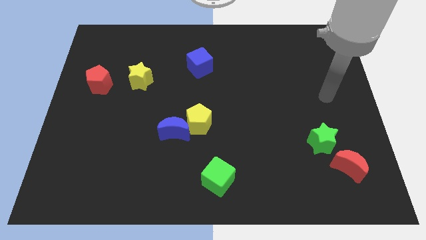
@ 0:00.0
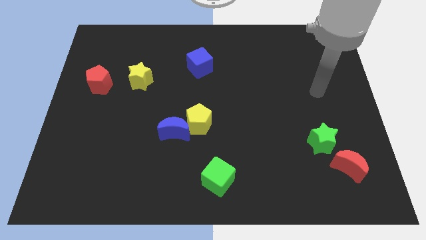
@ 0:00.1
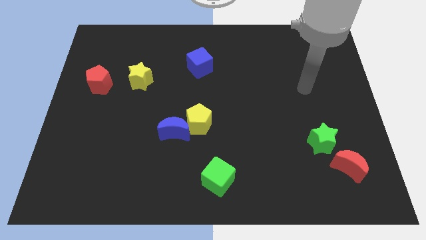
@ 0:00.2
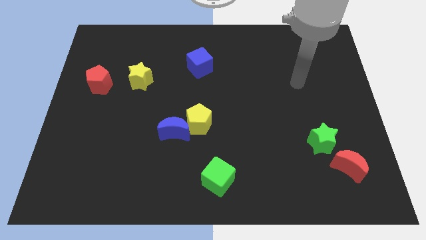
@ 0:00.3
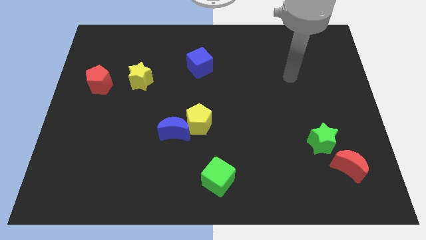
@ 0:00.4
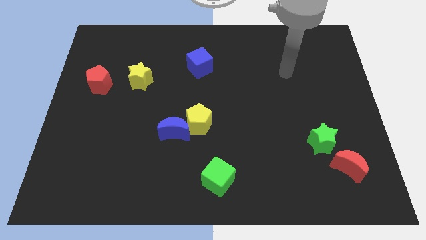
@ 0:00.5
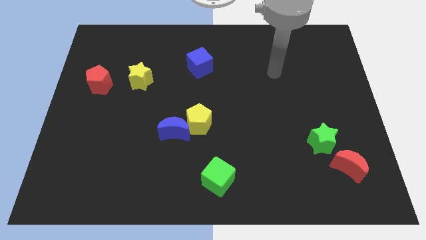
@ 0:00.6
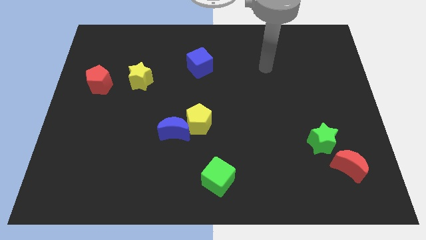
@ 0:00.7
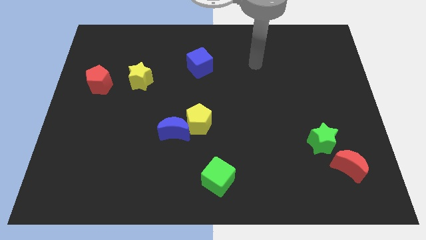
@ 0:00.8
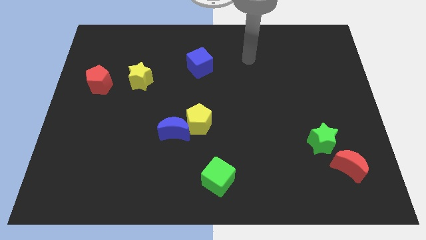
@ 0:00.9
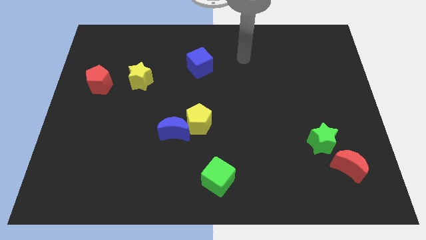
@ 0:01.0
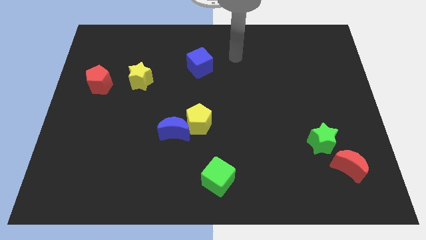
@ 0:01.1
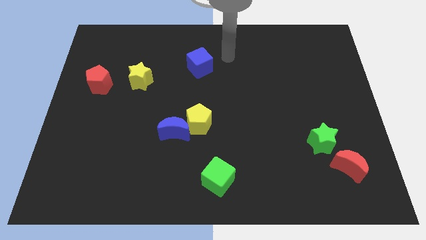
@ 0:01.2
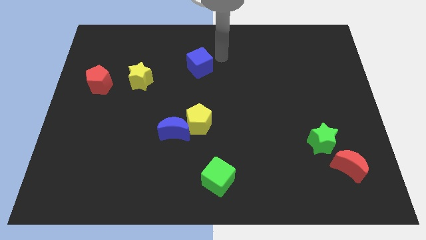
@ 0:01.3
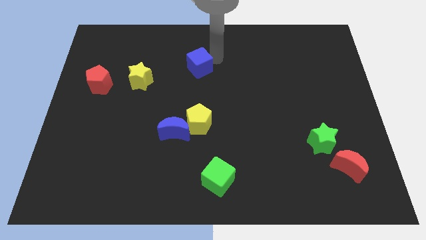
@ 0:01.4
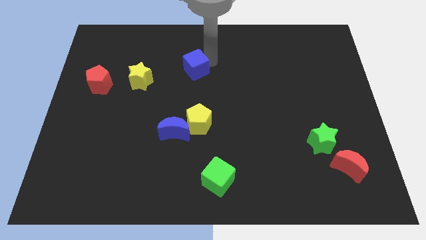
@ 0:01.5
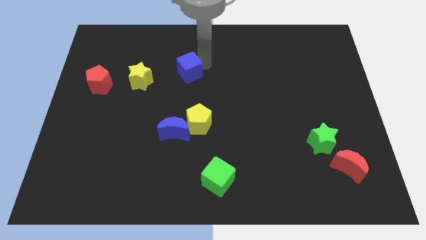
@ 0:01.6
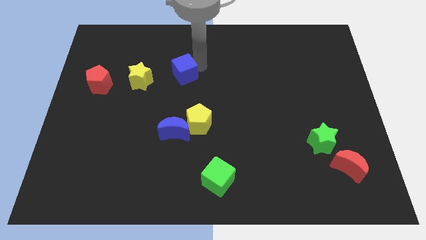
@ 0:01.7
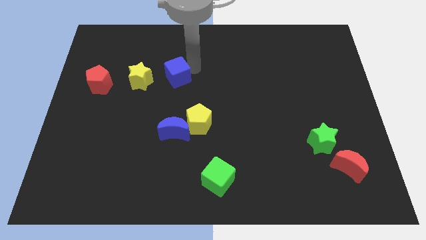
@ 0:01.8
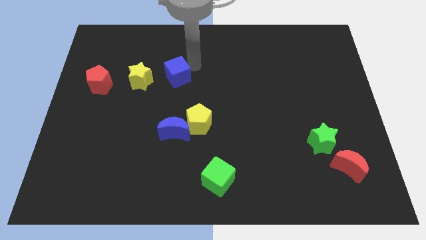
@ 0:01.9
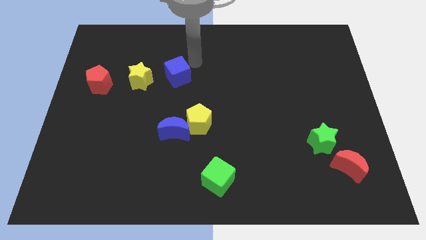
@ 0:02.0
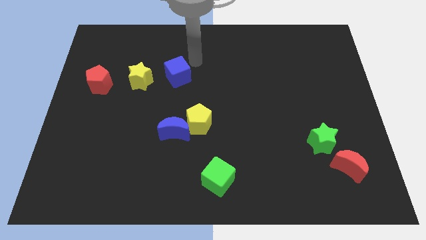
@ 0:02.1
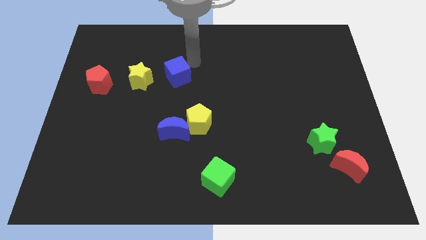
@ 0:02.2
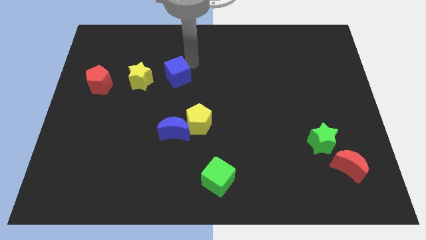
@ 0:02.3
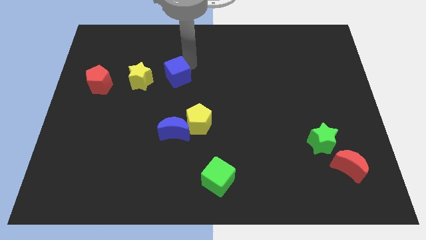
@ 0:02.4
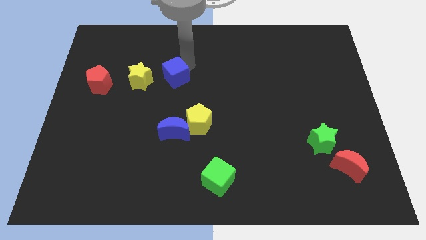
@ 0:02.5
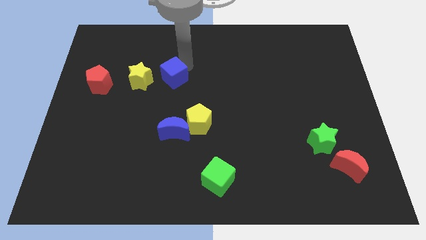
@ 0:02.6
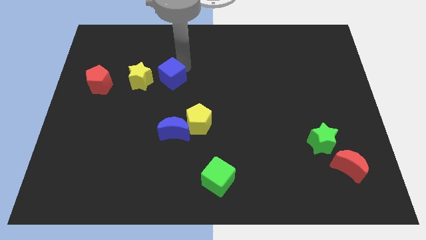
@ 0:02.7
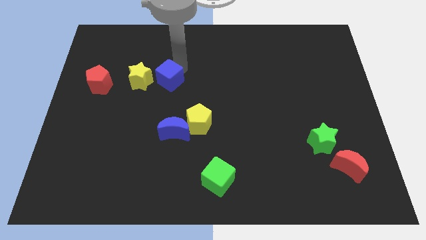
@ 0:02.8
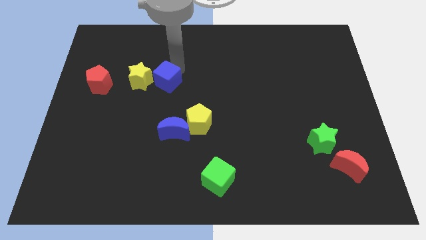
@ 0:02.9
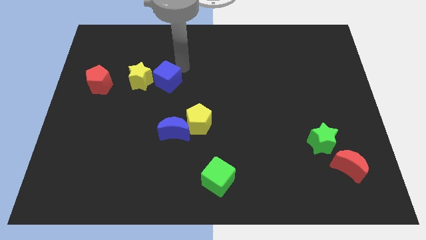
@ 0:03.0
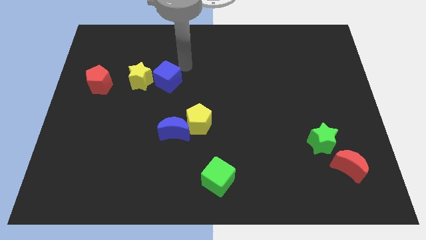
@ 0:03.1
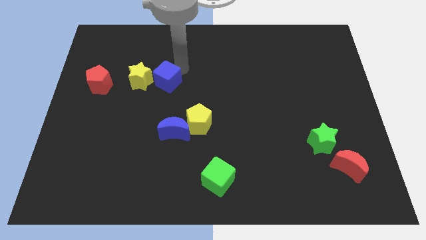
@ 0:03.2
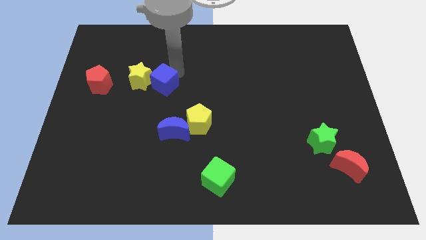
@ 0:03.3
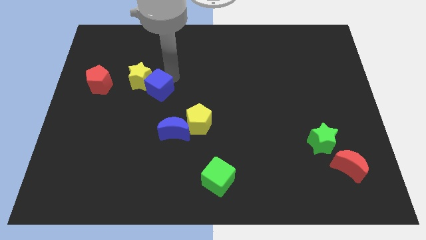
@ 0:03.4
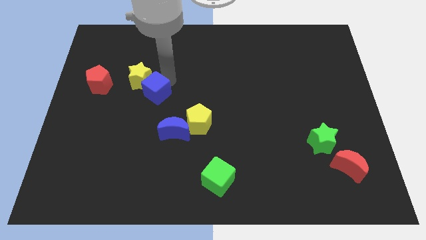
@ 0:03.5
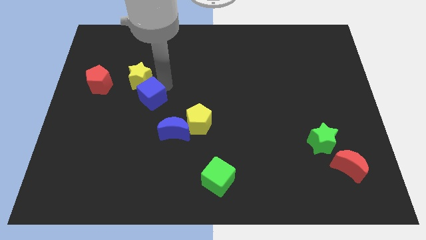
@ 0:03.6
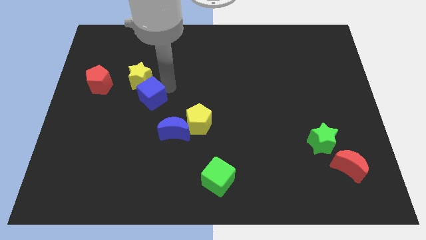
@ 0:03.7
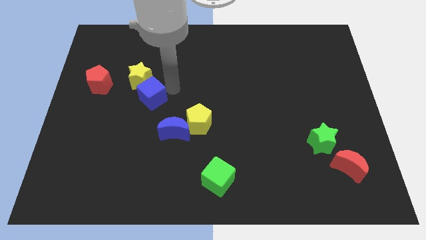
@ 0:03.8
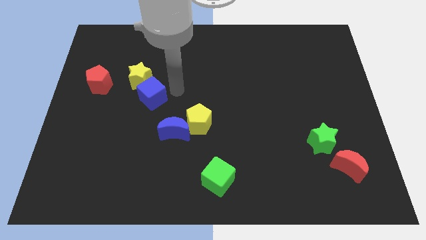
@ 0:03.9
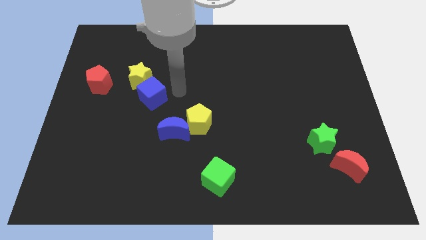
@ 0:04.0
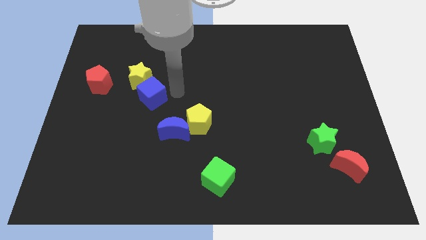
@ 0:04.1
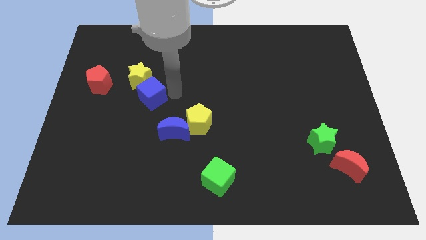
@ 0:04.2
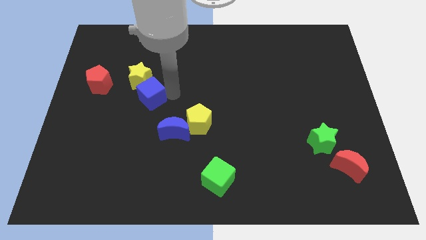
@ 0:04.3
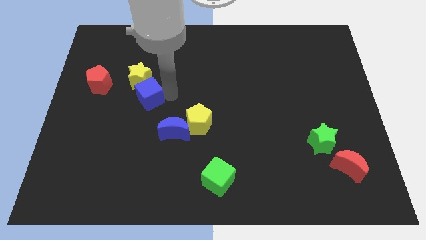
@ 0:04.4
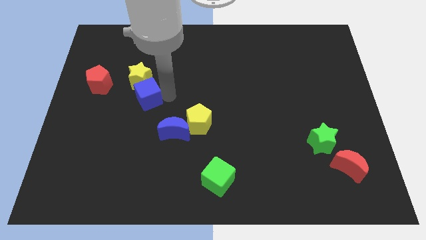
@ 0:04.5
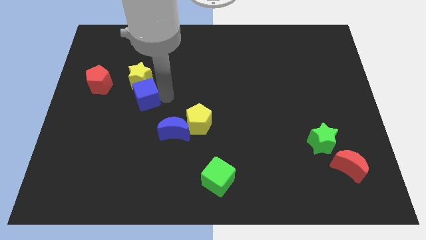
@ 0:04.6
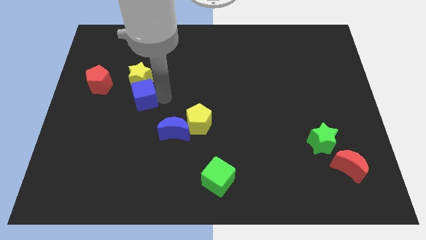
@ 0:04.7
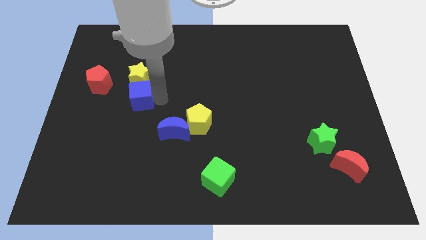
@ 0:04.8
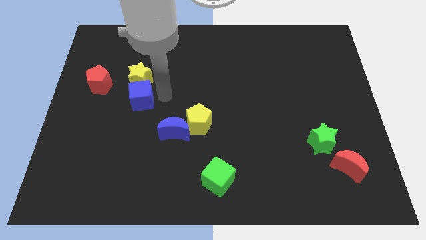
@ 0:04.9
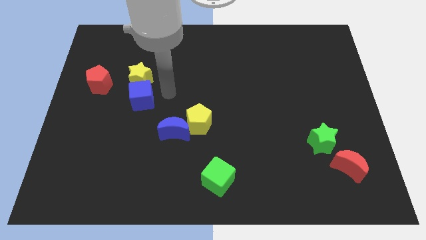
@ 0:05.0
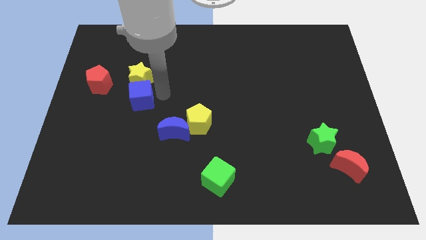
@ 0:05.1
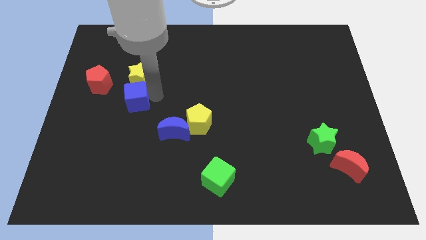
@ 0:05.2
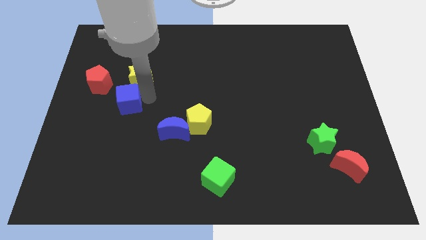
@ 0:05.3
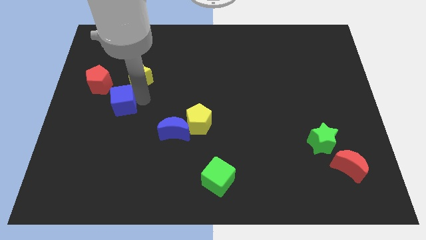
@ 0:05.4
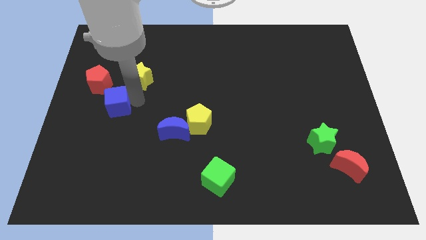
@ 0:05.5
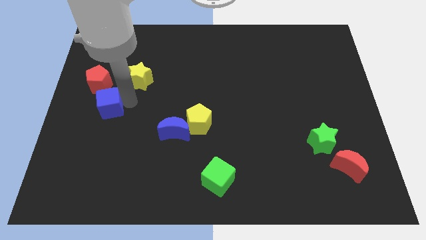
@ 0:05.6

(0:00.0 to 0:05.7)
put the blue cube to the bottom of the red pentagon

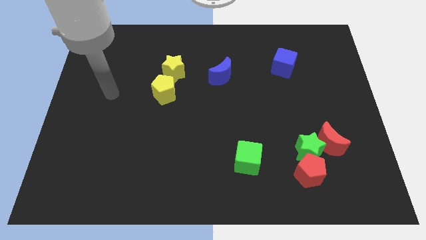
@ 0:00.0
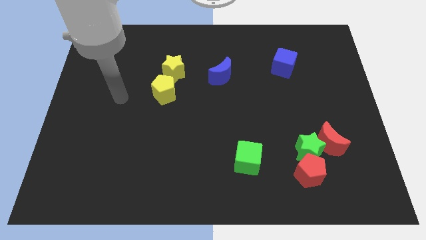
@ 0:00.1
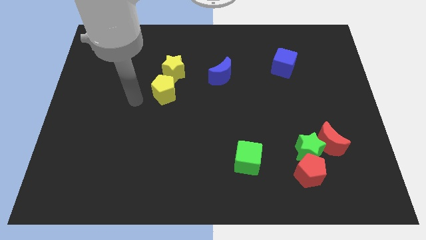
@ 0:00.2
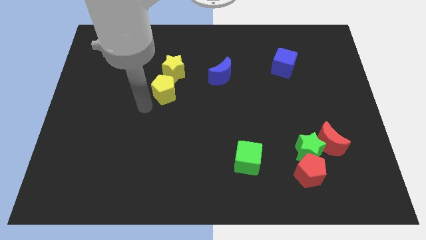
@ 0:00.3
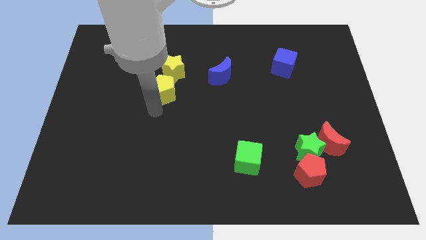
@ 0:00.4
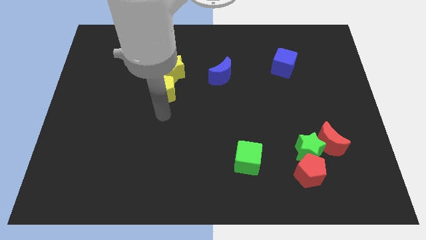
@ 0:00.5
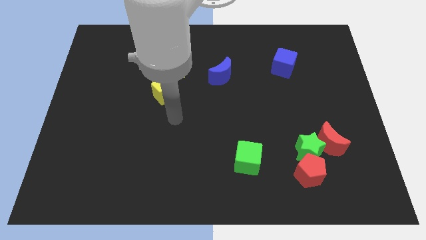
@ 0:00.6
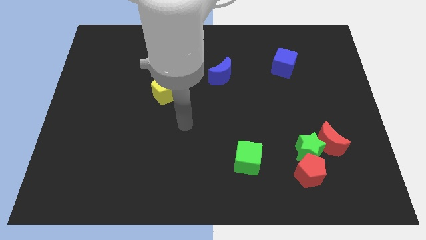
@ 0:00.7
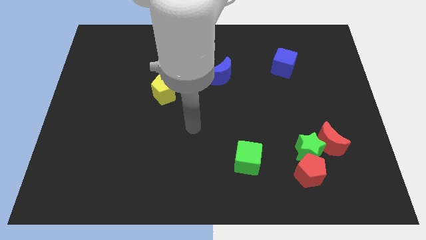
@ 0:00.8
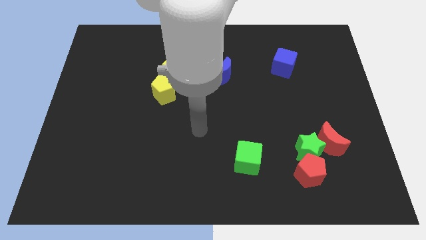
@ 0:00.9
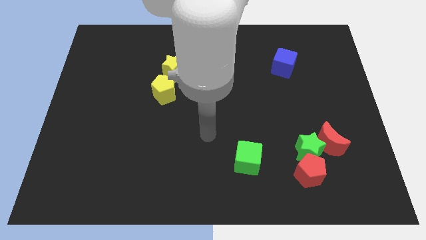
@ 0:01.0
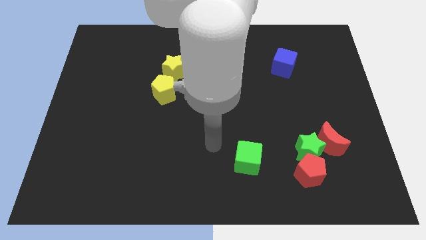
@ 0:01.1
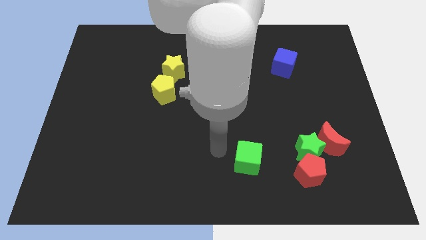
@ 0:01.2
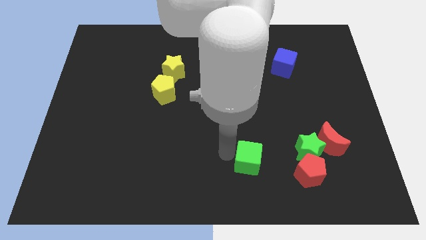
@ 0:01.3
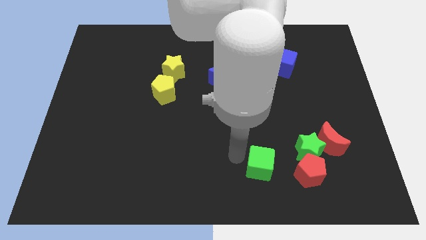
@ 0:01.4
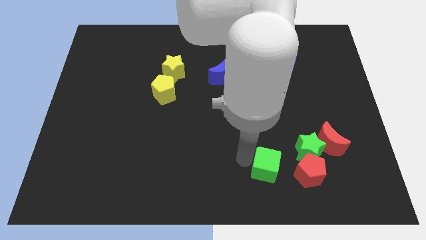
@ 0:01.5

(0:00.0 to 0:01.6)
move the green cube to the bottom left of the green star
